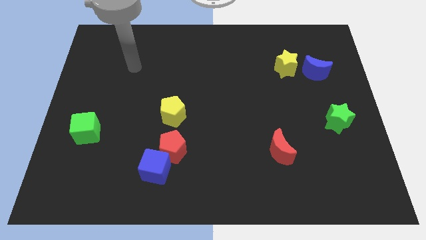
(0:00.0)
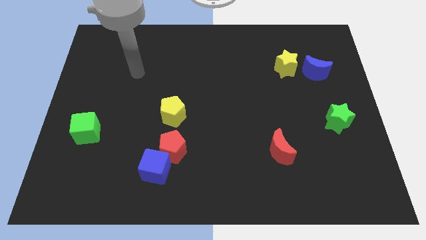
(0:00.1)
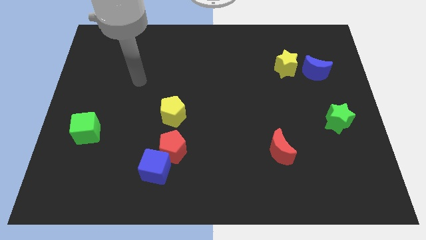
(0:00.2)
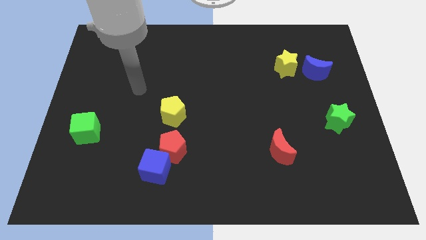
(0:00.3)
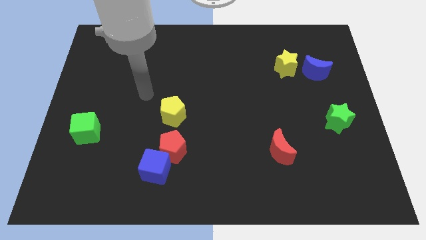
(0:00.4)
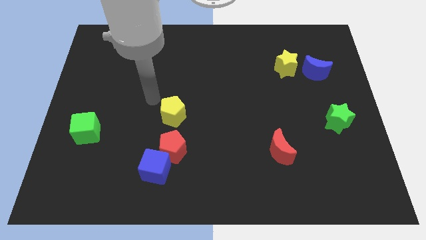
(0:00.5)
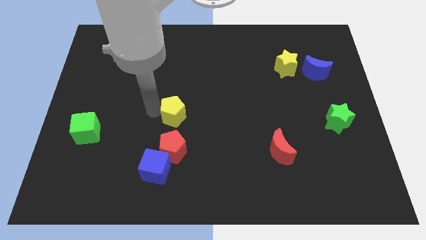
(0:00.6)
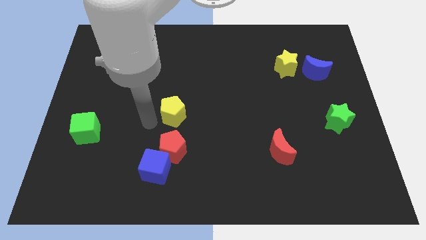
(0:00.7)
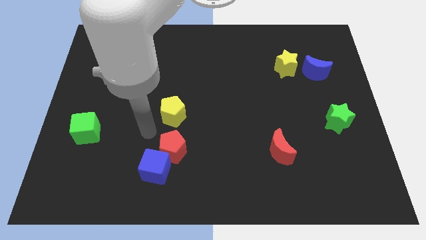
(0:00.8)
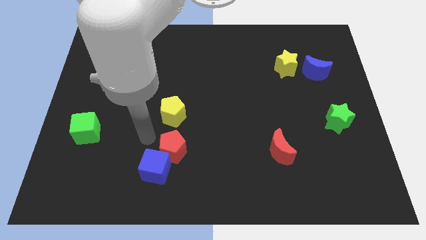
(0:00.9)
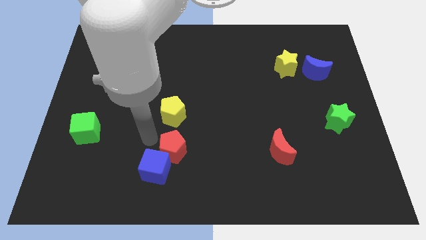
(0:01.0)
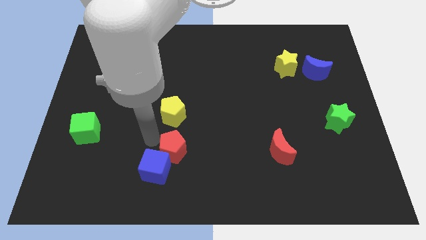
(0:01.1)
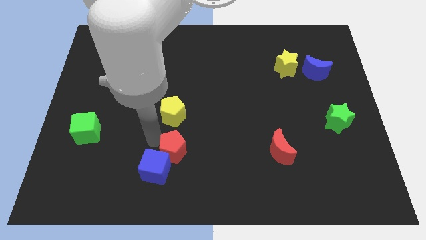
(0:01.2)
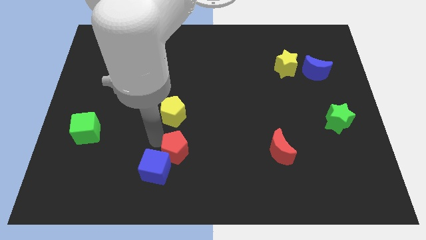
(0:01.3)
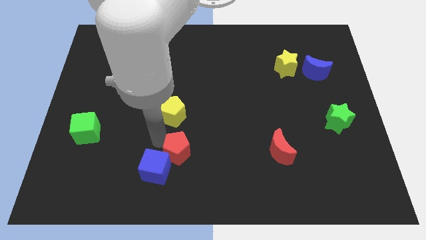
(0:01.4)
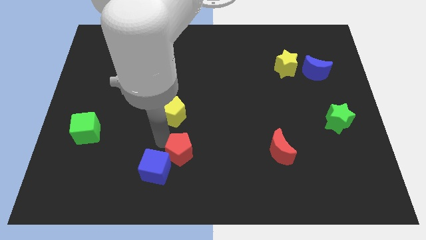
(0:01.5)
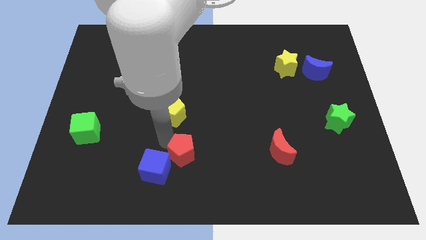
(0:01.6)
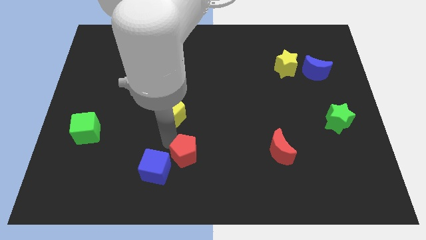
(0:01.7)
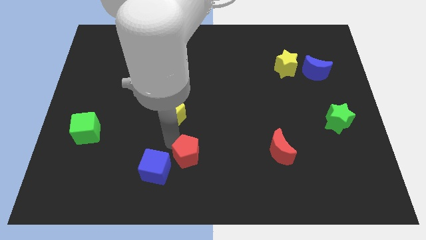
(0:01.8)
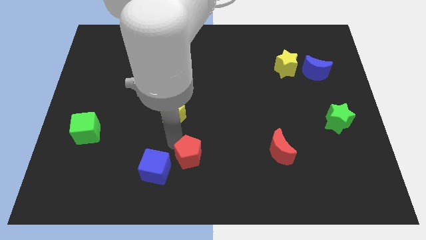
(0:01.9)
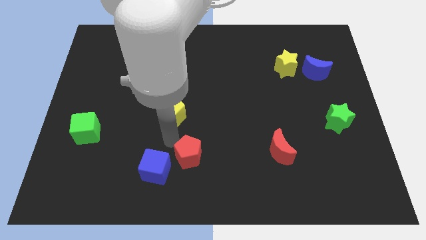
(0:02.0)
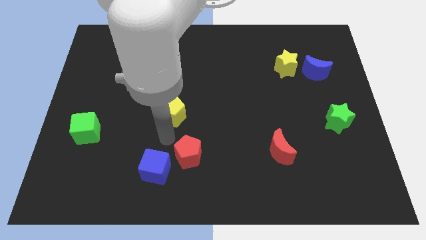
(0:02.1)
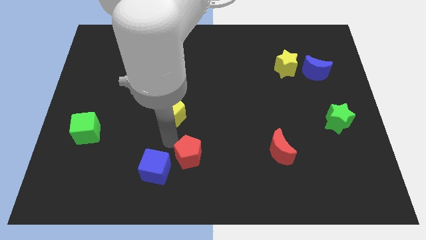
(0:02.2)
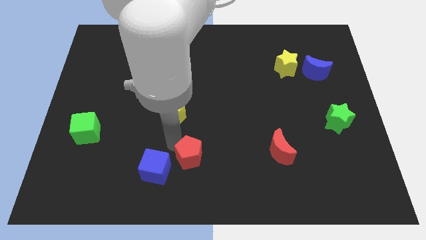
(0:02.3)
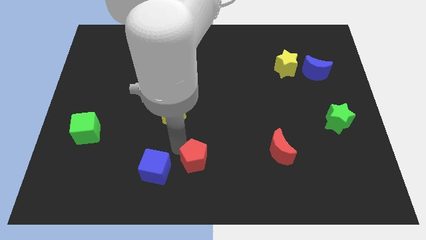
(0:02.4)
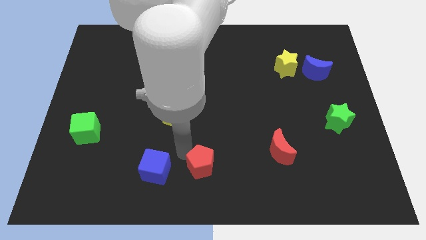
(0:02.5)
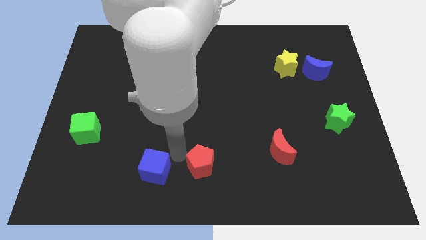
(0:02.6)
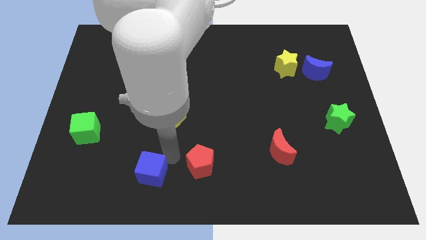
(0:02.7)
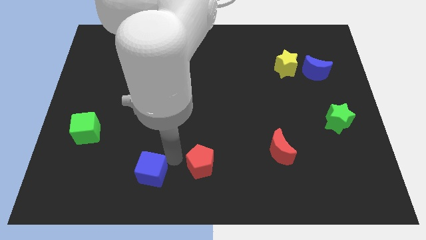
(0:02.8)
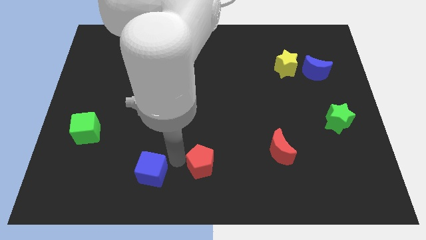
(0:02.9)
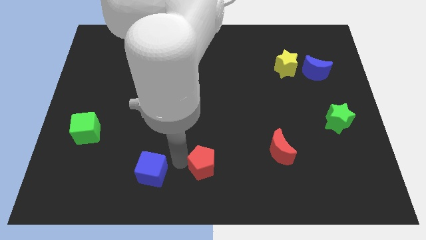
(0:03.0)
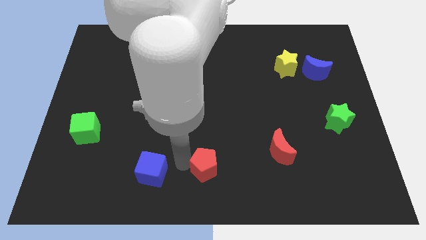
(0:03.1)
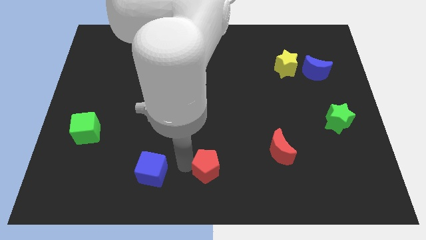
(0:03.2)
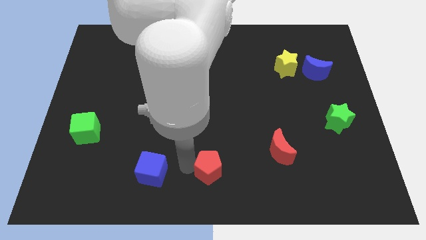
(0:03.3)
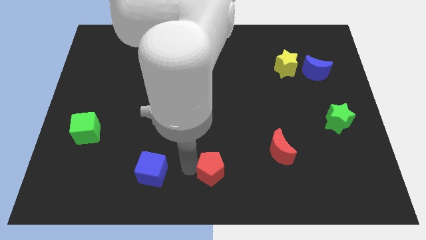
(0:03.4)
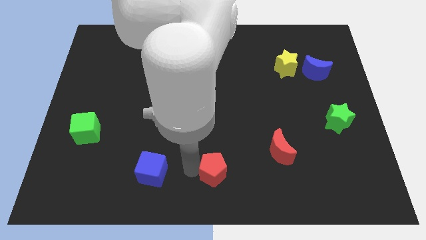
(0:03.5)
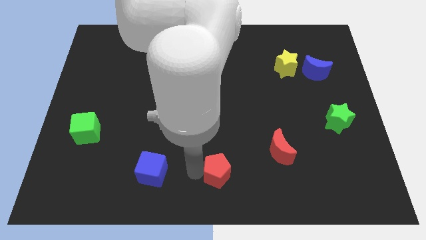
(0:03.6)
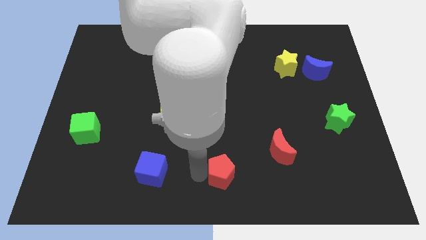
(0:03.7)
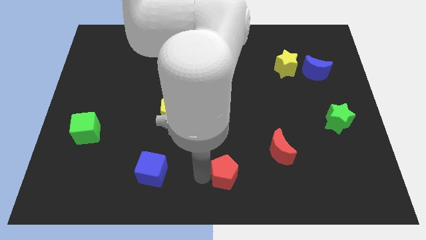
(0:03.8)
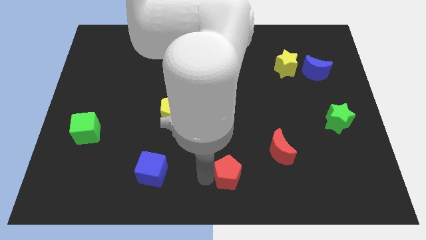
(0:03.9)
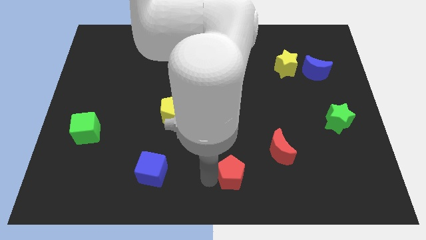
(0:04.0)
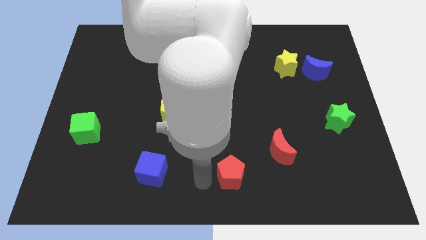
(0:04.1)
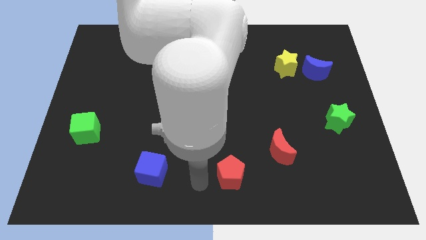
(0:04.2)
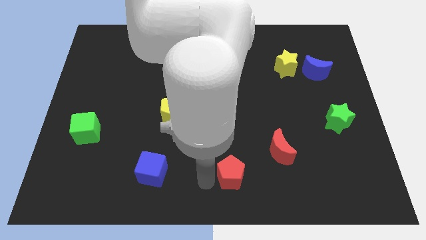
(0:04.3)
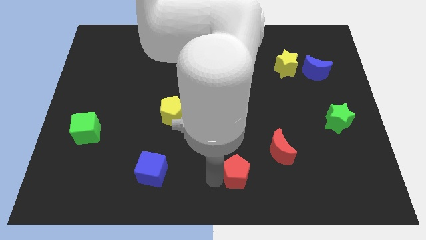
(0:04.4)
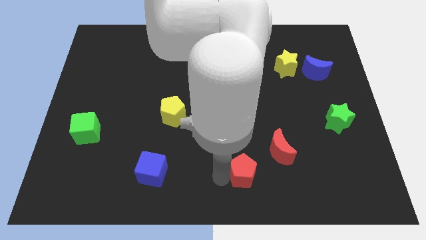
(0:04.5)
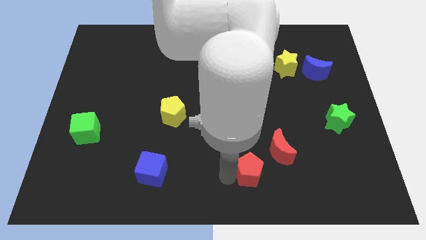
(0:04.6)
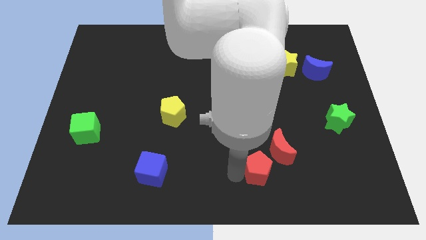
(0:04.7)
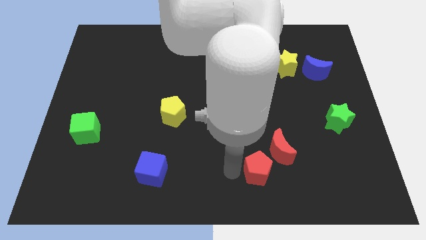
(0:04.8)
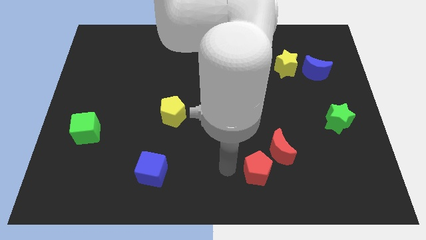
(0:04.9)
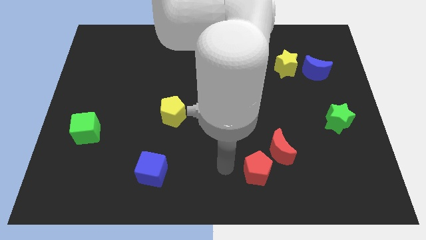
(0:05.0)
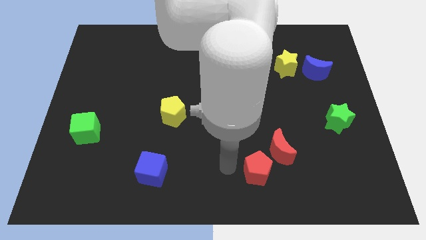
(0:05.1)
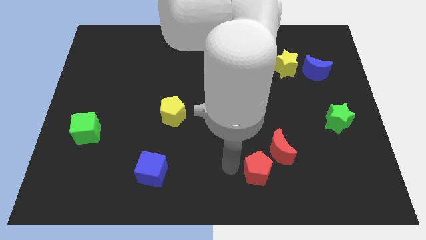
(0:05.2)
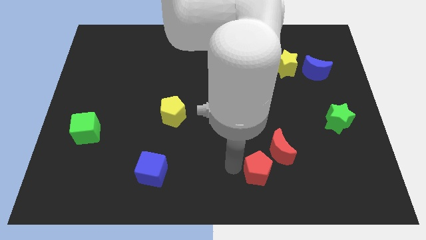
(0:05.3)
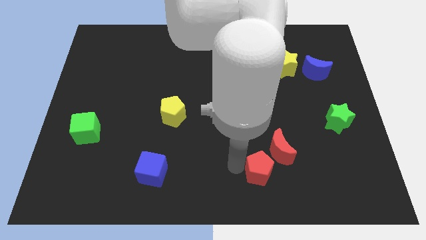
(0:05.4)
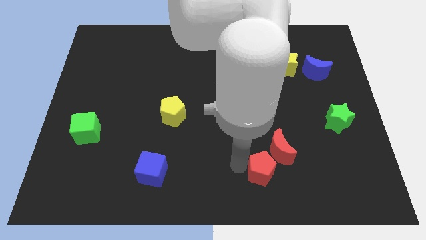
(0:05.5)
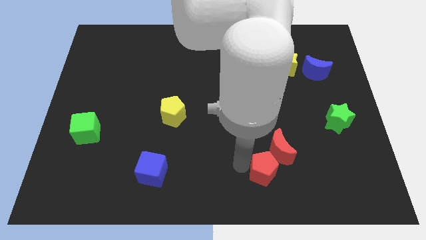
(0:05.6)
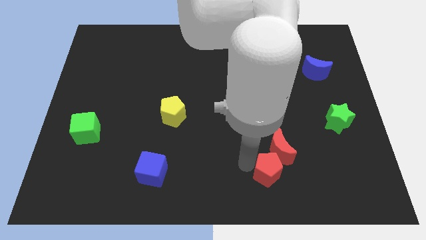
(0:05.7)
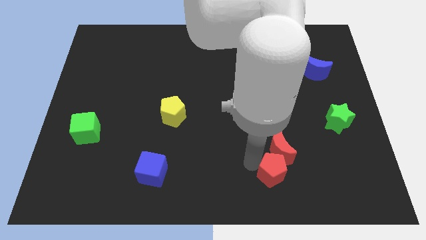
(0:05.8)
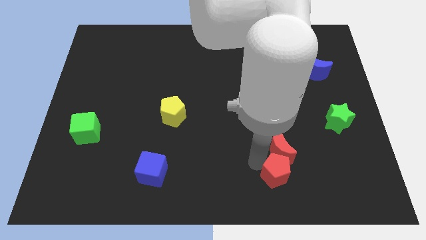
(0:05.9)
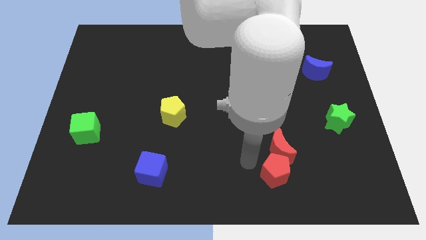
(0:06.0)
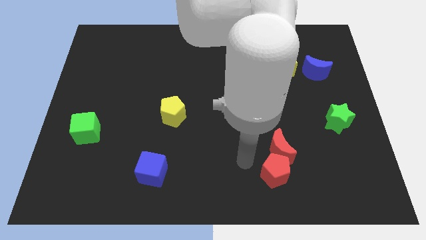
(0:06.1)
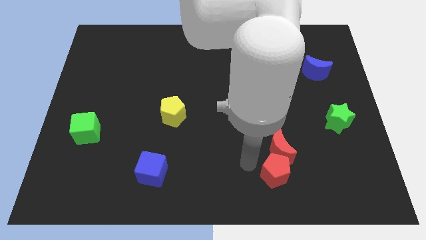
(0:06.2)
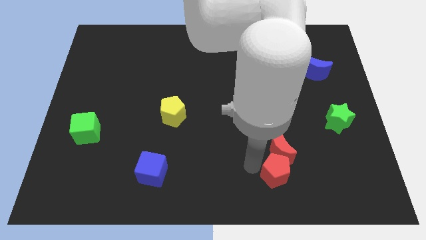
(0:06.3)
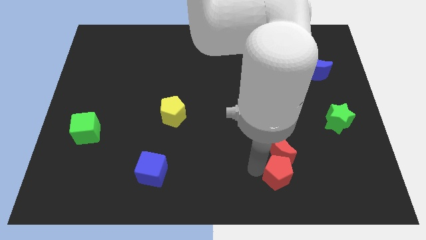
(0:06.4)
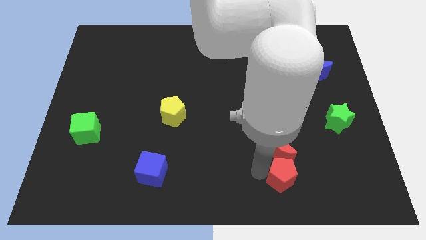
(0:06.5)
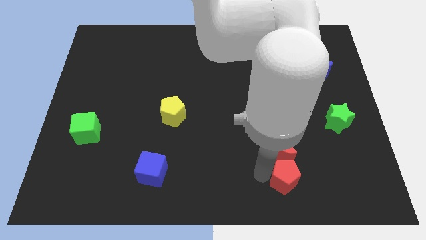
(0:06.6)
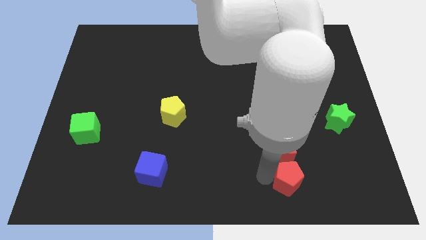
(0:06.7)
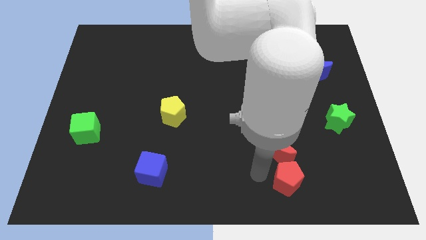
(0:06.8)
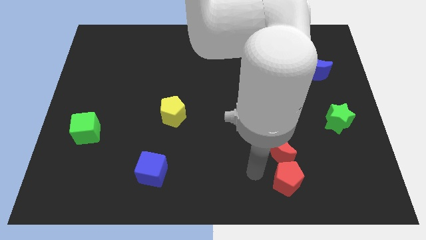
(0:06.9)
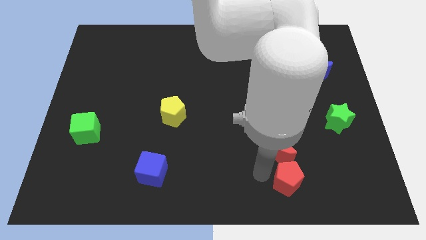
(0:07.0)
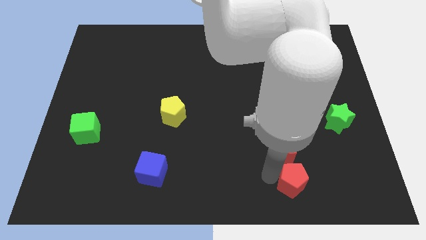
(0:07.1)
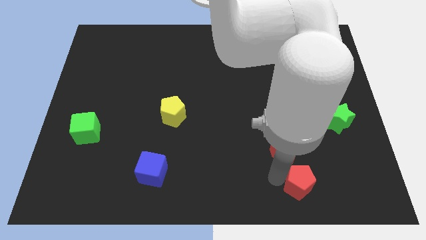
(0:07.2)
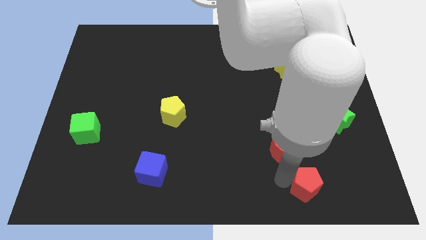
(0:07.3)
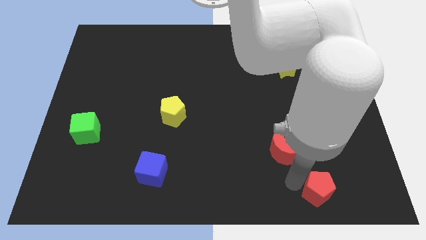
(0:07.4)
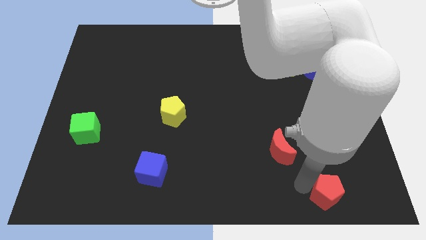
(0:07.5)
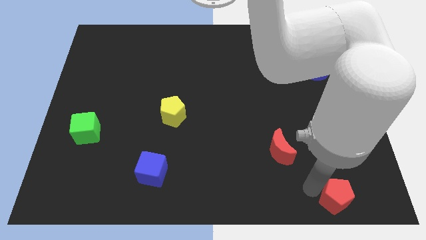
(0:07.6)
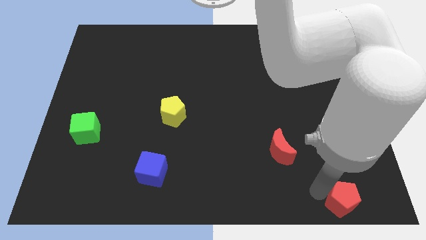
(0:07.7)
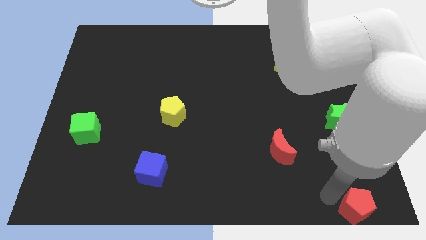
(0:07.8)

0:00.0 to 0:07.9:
slide the red pentagon to the bottom right corner
